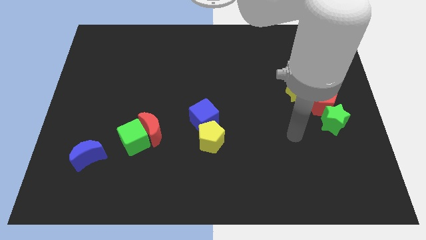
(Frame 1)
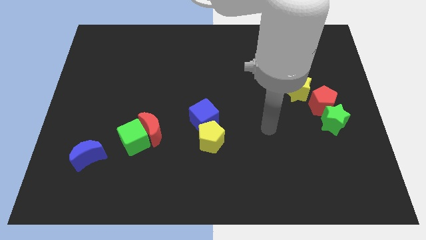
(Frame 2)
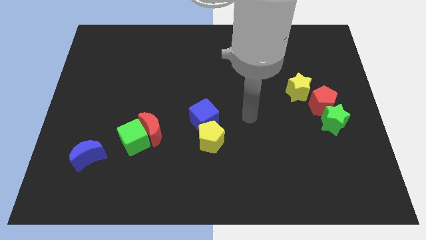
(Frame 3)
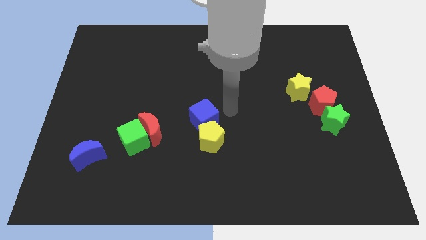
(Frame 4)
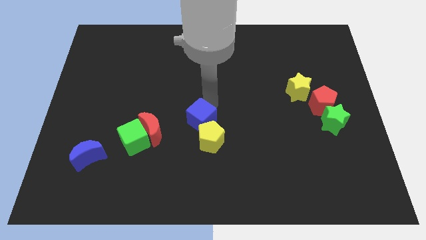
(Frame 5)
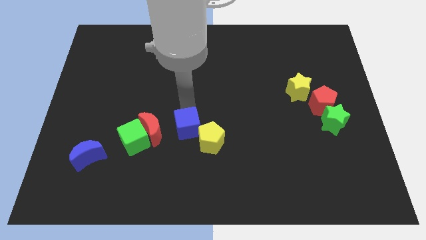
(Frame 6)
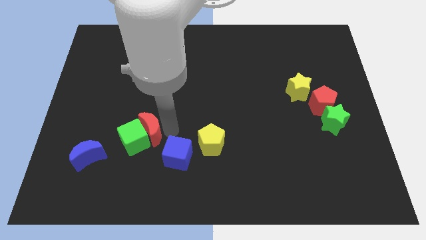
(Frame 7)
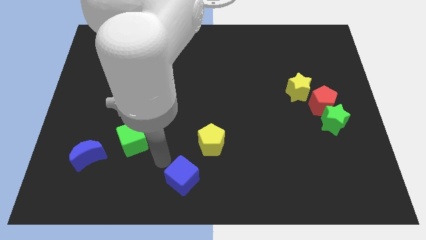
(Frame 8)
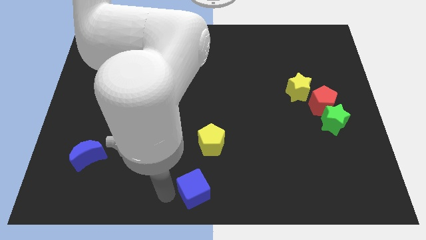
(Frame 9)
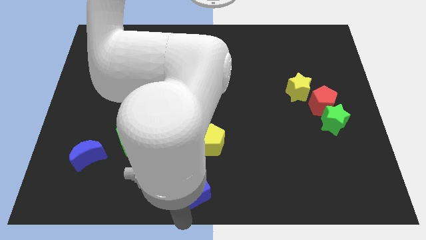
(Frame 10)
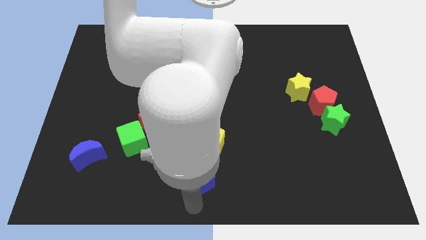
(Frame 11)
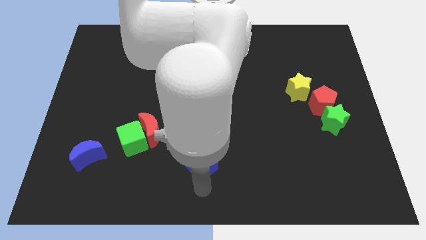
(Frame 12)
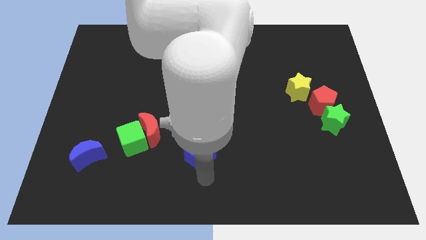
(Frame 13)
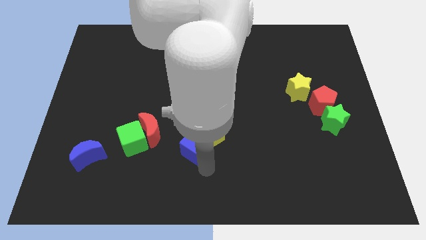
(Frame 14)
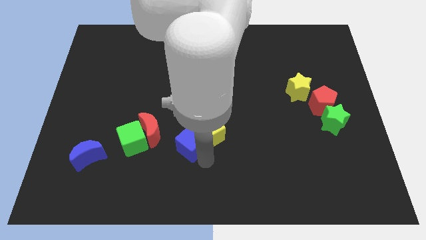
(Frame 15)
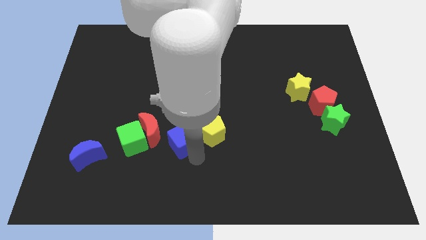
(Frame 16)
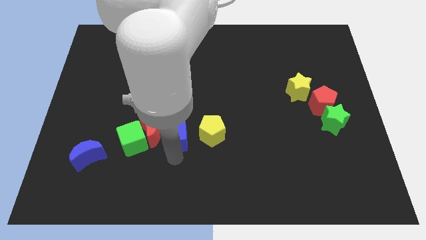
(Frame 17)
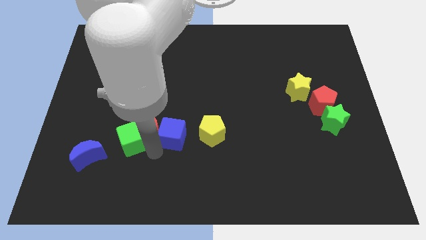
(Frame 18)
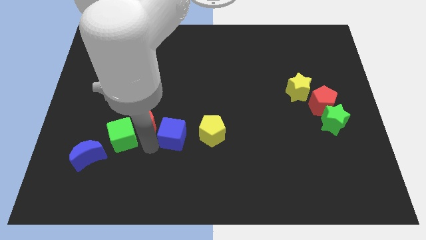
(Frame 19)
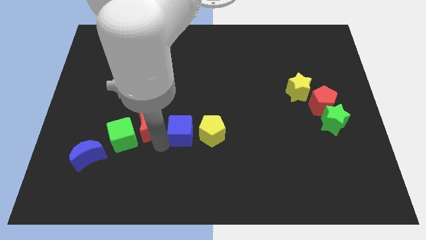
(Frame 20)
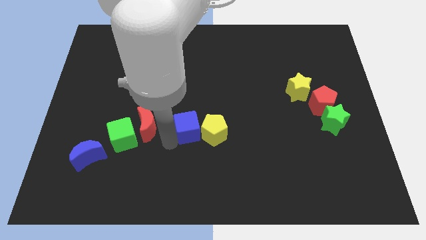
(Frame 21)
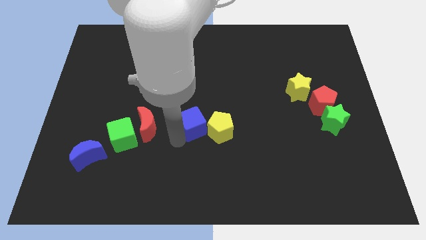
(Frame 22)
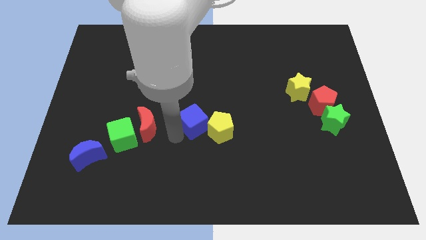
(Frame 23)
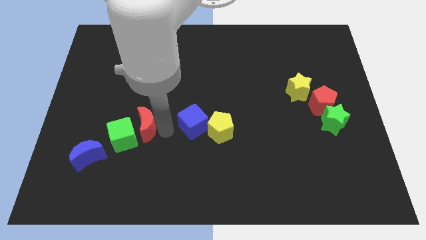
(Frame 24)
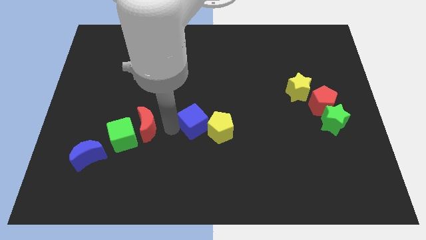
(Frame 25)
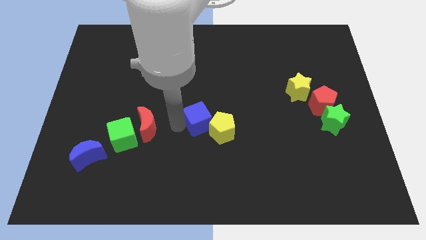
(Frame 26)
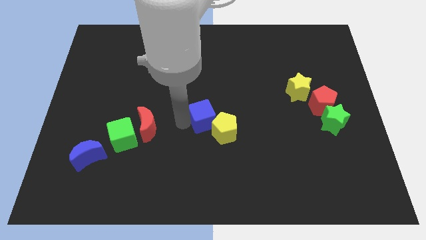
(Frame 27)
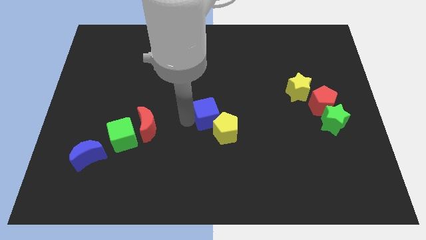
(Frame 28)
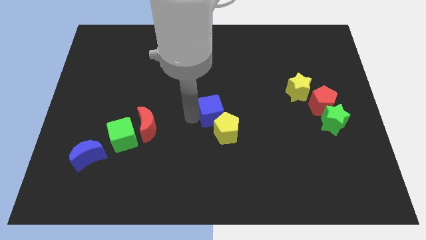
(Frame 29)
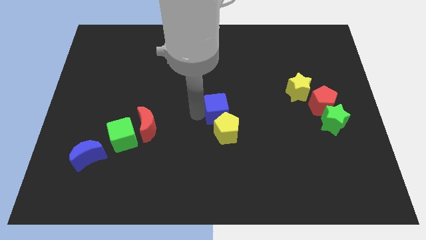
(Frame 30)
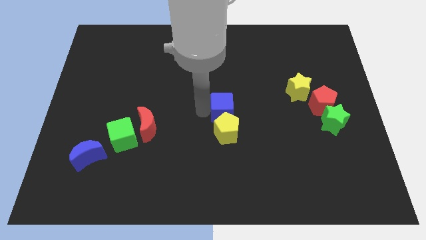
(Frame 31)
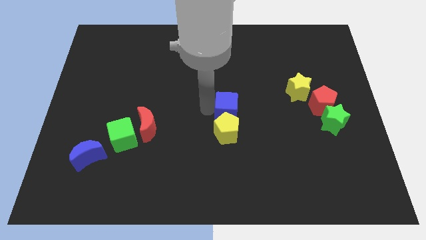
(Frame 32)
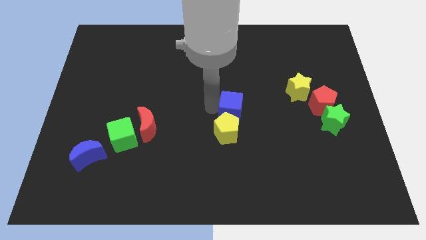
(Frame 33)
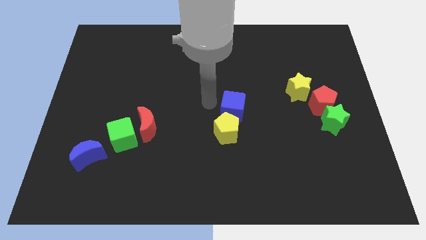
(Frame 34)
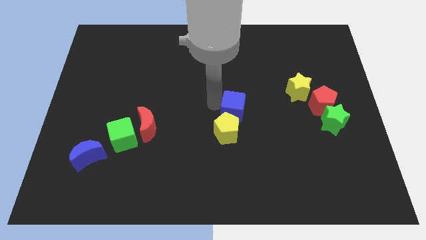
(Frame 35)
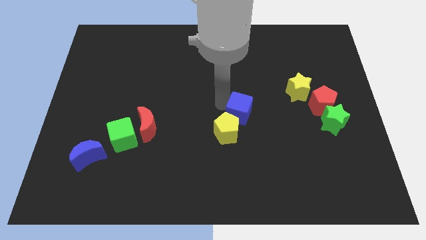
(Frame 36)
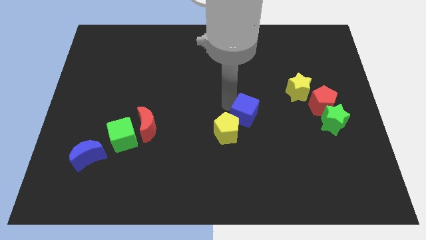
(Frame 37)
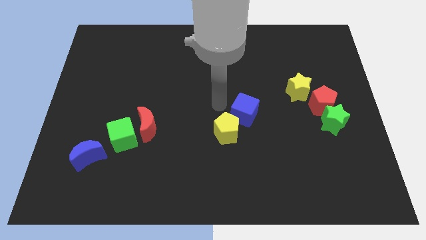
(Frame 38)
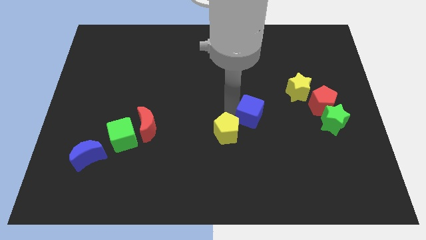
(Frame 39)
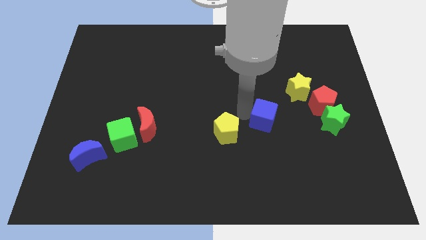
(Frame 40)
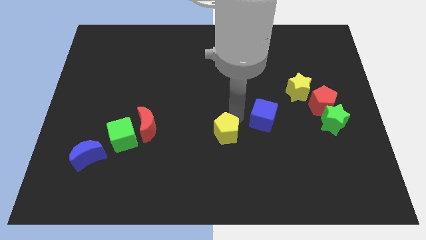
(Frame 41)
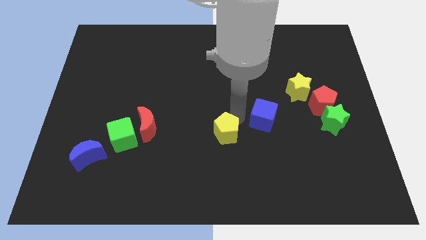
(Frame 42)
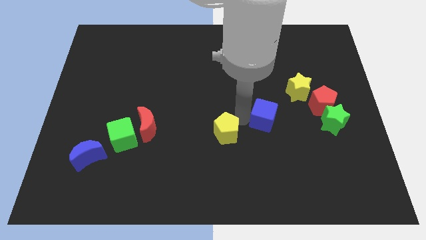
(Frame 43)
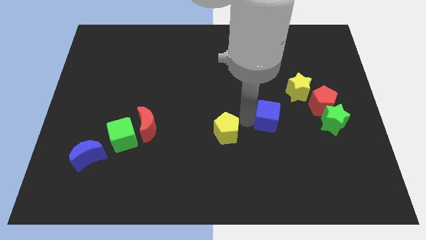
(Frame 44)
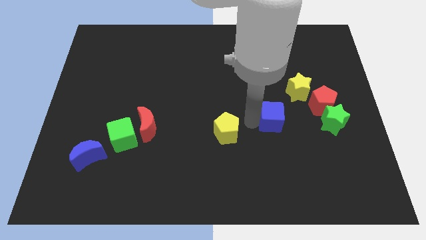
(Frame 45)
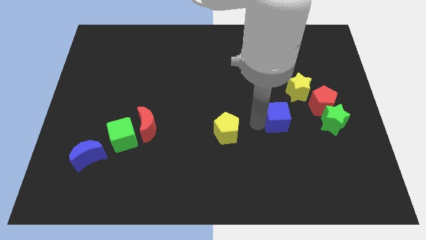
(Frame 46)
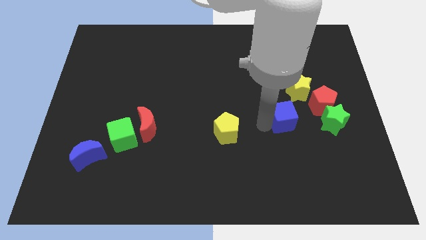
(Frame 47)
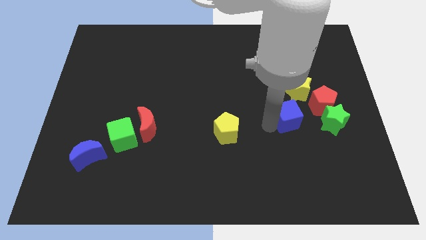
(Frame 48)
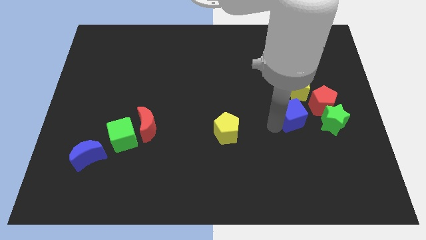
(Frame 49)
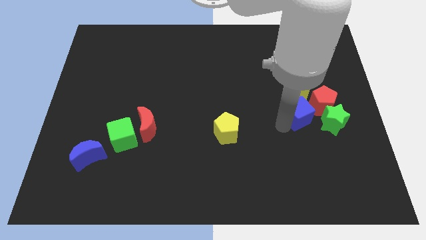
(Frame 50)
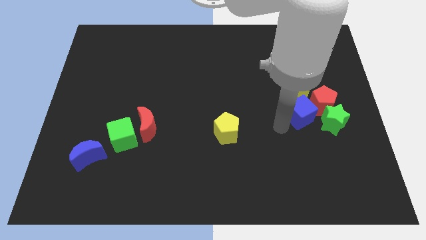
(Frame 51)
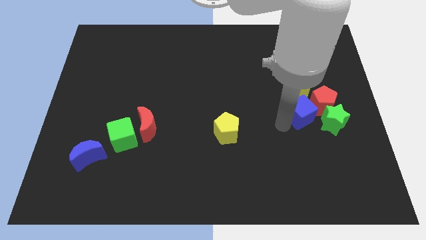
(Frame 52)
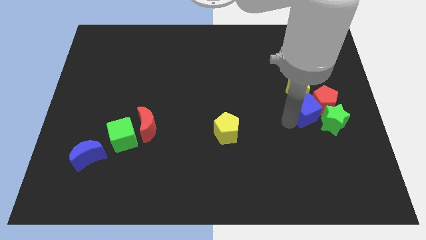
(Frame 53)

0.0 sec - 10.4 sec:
put the blue cube close to the red pentagon

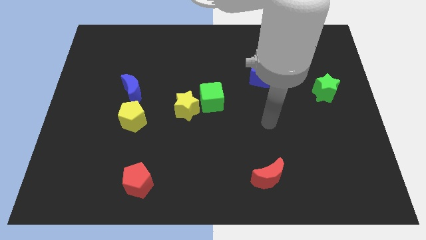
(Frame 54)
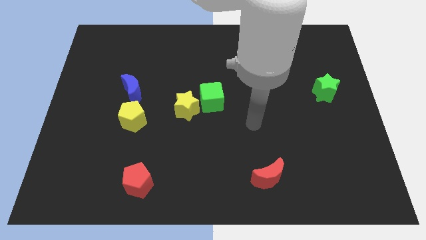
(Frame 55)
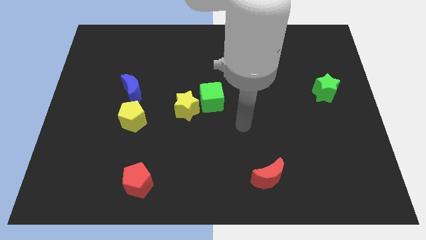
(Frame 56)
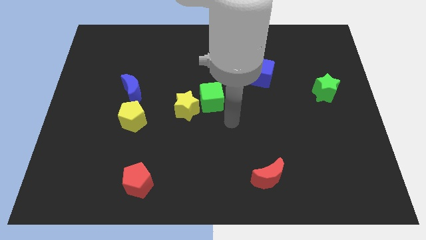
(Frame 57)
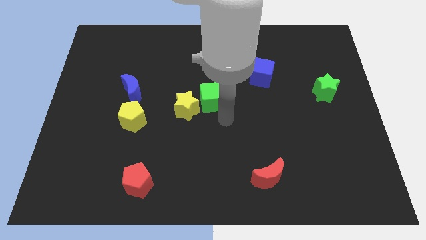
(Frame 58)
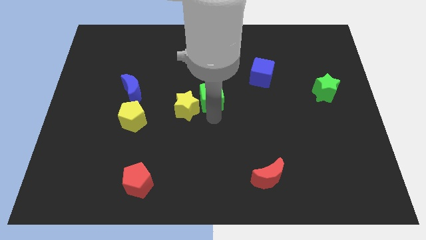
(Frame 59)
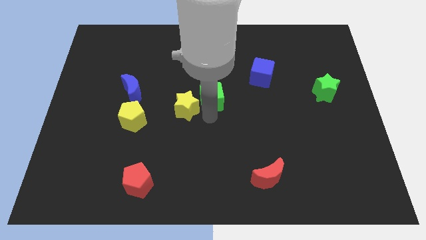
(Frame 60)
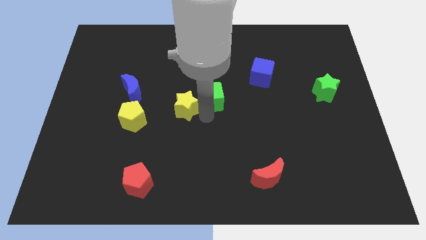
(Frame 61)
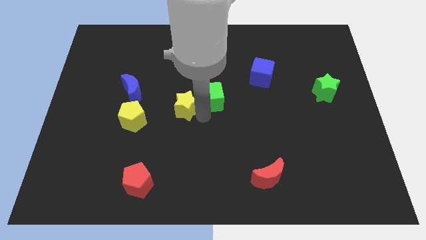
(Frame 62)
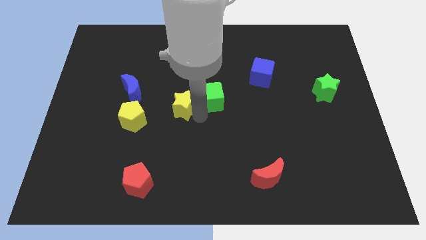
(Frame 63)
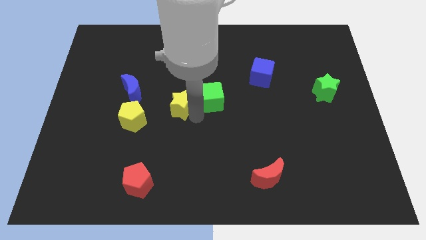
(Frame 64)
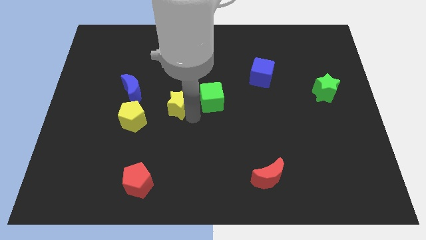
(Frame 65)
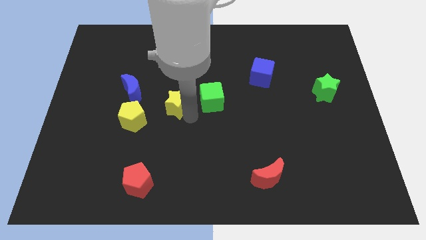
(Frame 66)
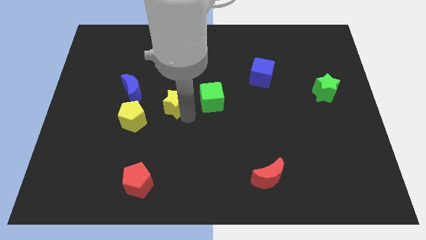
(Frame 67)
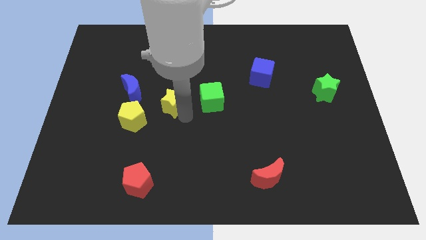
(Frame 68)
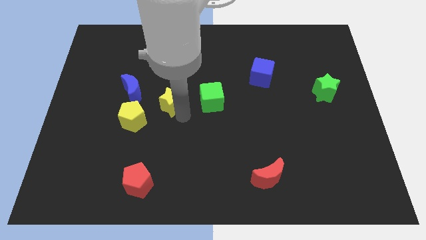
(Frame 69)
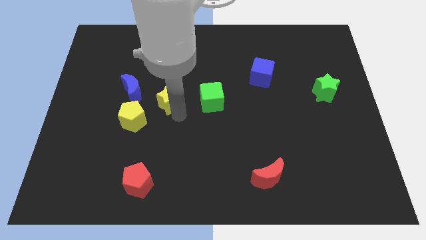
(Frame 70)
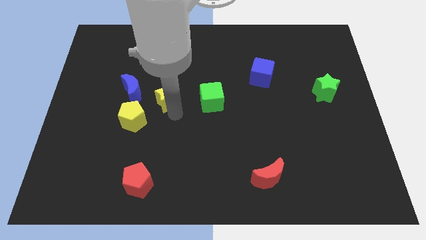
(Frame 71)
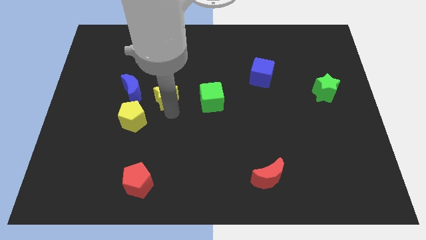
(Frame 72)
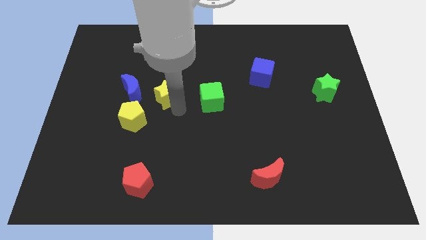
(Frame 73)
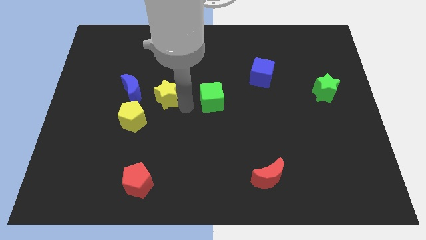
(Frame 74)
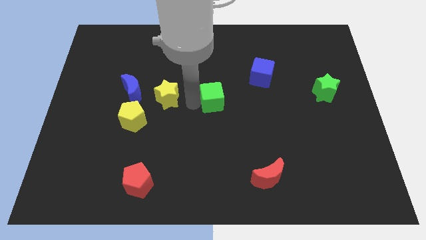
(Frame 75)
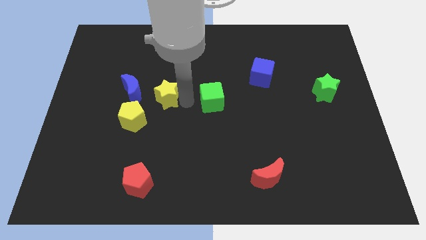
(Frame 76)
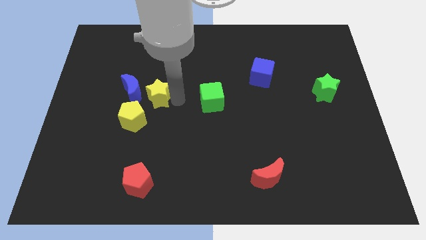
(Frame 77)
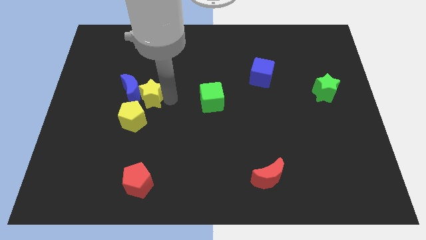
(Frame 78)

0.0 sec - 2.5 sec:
slide the yellow star next to the blue moon
